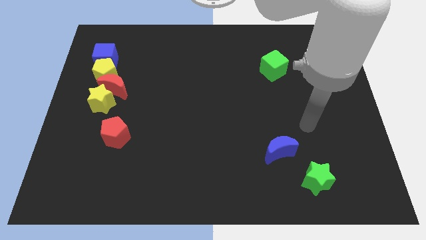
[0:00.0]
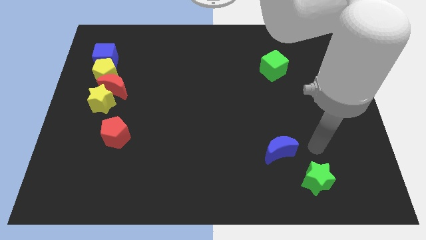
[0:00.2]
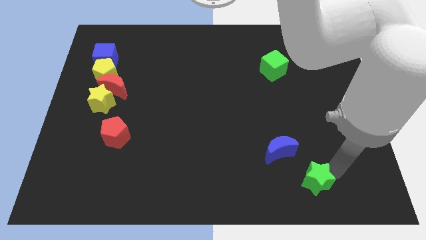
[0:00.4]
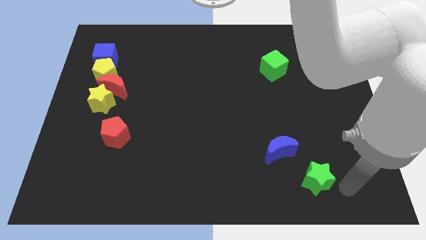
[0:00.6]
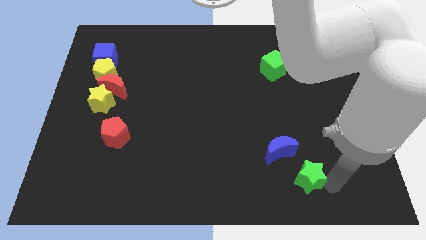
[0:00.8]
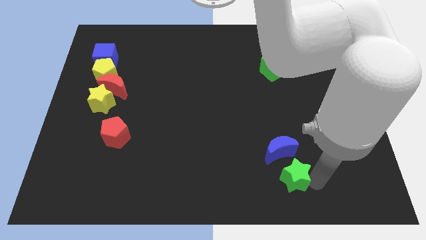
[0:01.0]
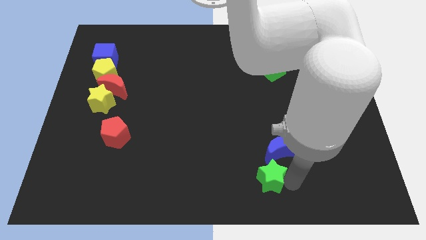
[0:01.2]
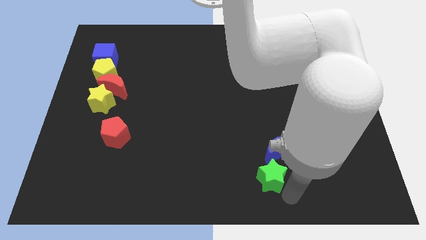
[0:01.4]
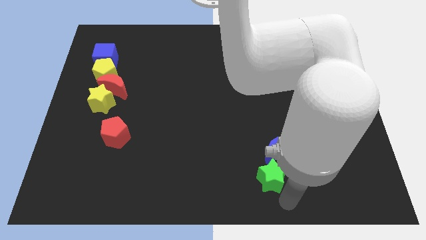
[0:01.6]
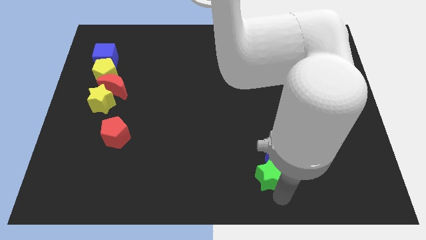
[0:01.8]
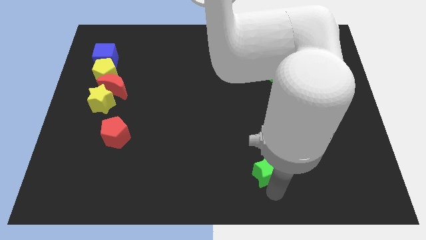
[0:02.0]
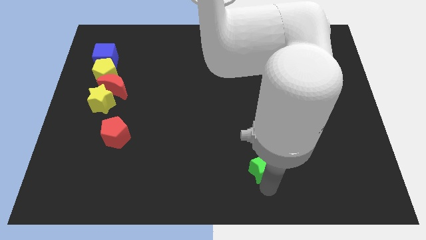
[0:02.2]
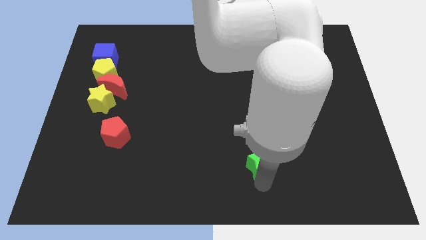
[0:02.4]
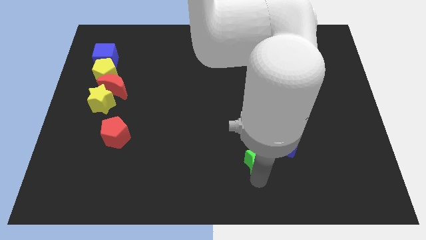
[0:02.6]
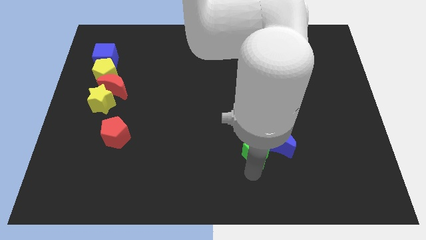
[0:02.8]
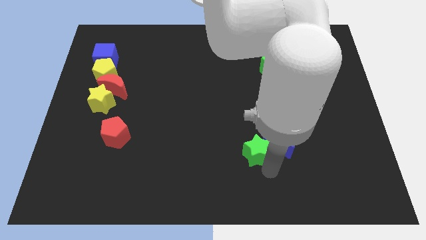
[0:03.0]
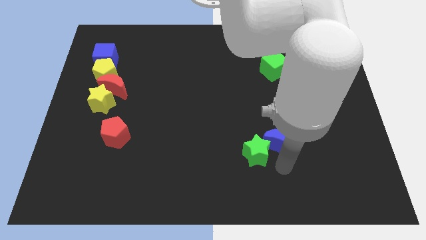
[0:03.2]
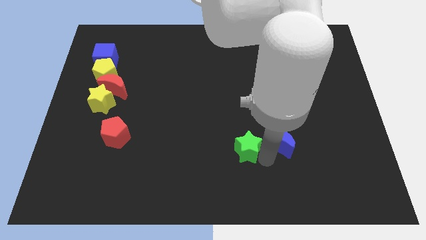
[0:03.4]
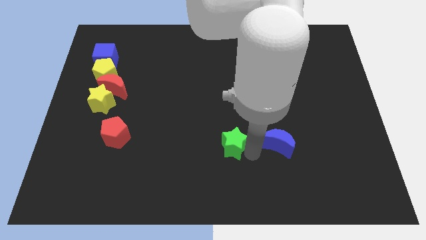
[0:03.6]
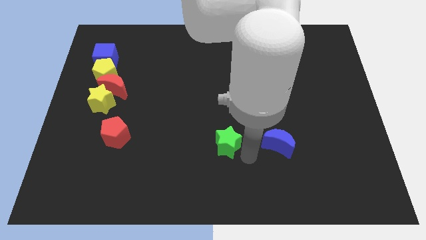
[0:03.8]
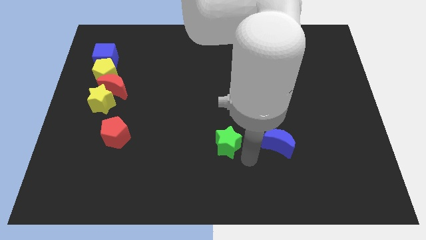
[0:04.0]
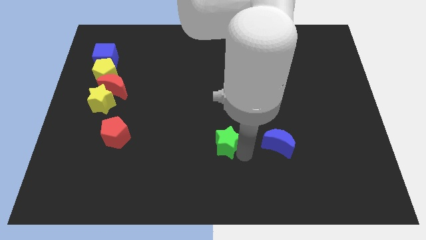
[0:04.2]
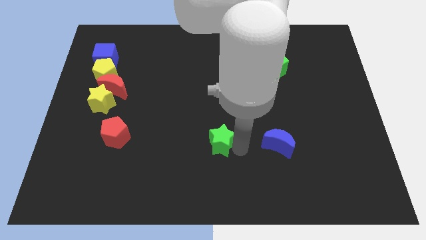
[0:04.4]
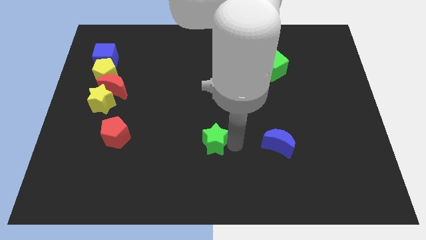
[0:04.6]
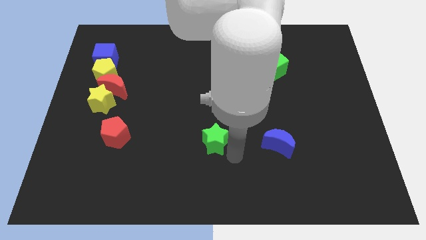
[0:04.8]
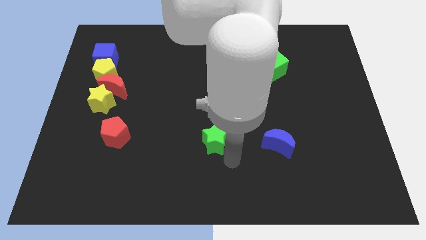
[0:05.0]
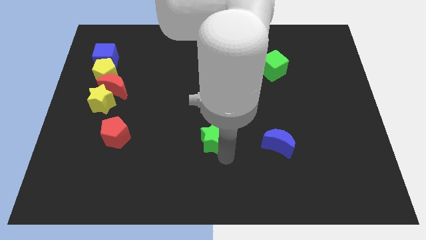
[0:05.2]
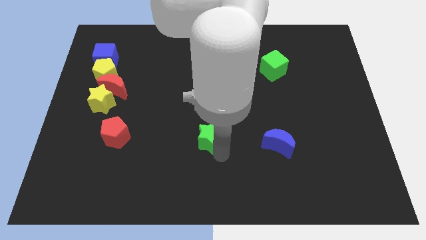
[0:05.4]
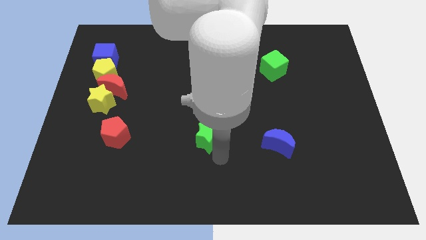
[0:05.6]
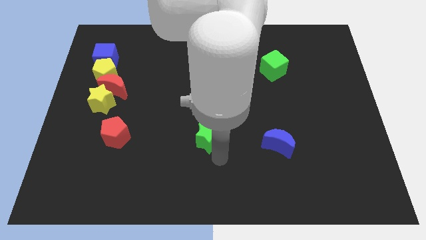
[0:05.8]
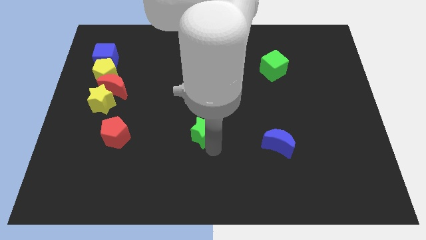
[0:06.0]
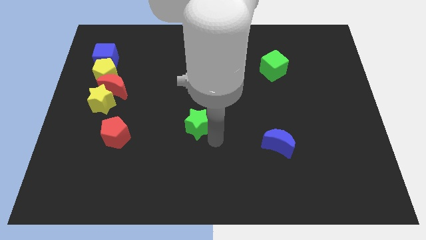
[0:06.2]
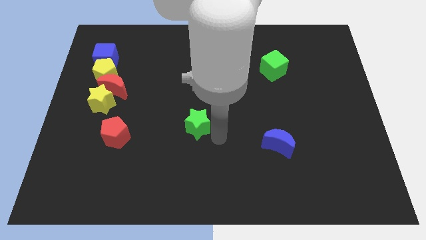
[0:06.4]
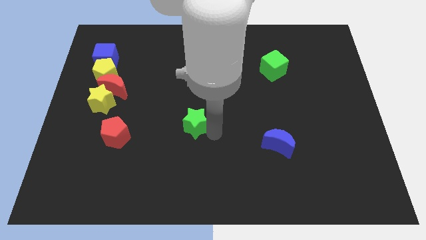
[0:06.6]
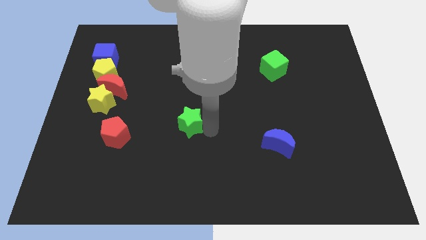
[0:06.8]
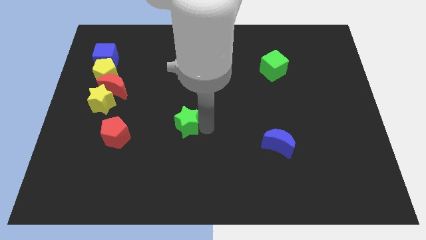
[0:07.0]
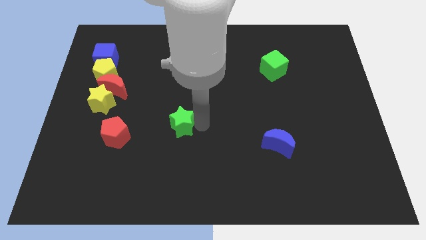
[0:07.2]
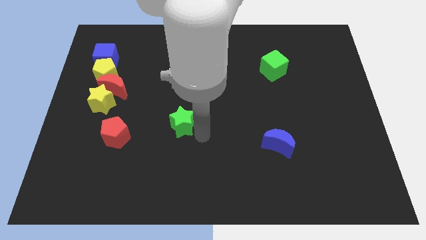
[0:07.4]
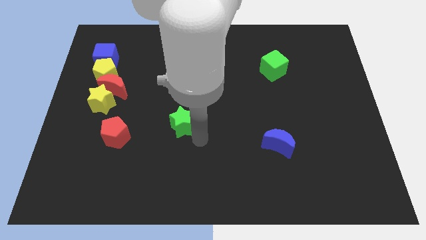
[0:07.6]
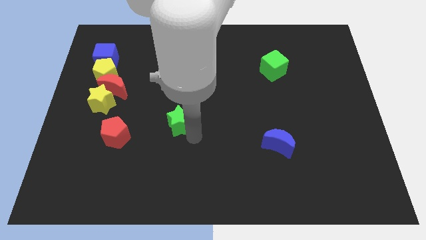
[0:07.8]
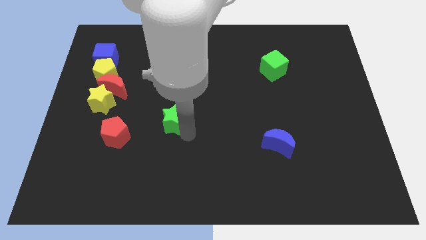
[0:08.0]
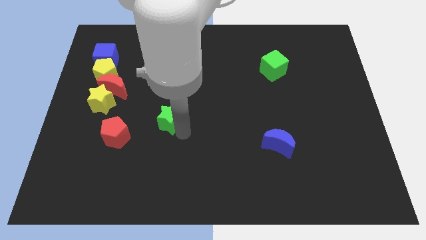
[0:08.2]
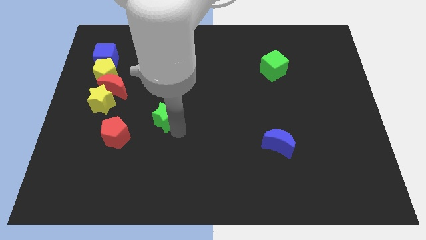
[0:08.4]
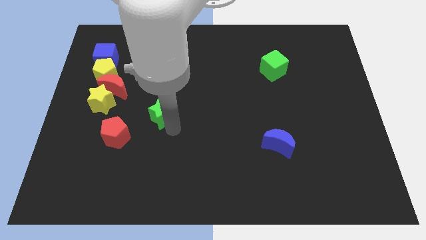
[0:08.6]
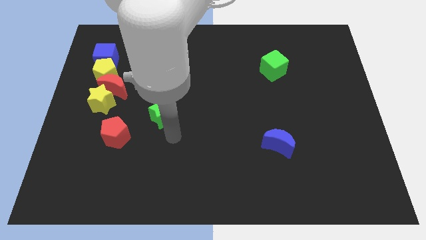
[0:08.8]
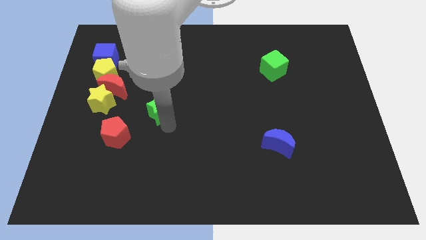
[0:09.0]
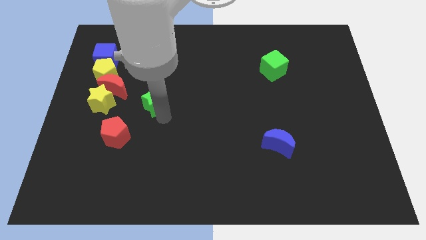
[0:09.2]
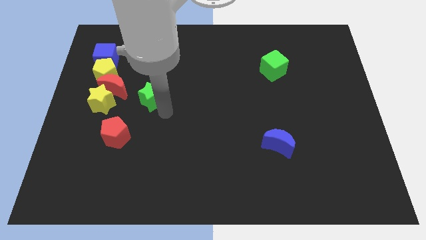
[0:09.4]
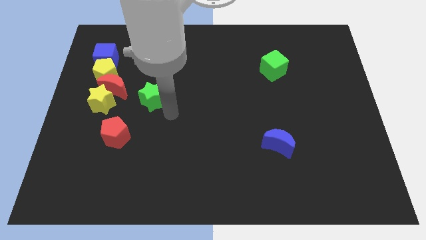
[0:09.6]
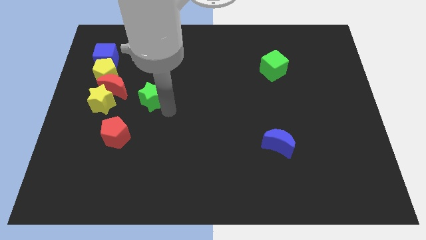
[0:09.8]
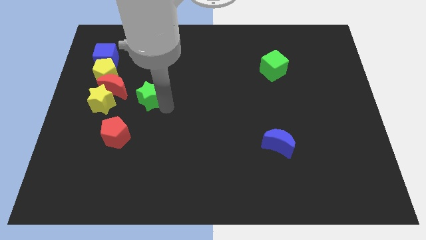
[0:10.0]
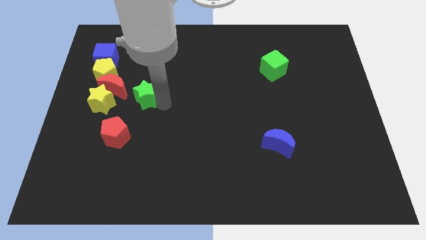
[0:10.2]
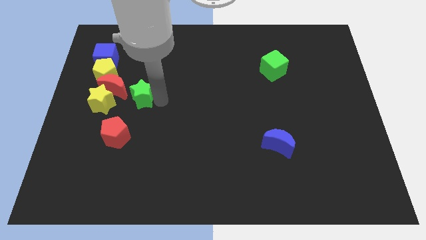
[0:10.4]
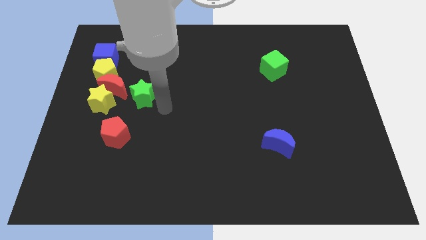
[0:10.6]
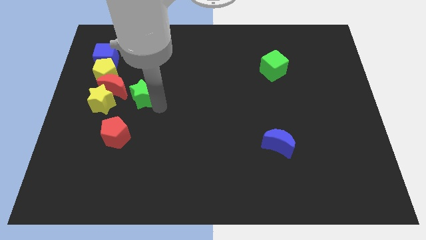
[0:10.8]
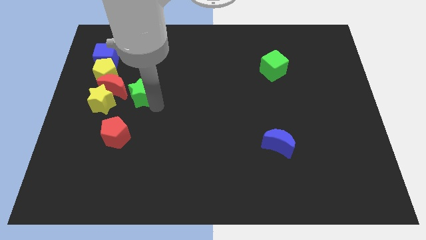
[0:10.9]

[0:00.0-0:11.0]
move the green star to the top right side of the yellow star

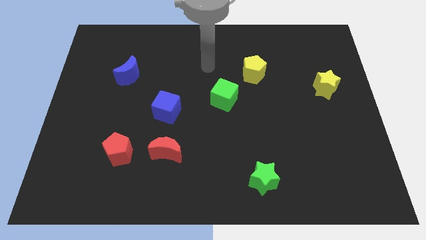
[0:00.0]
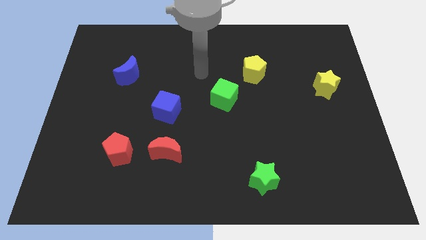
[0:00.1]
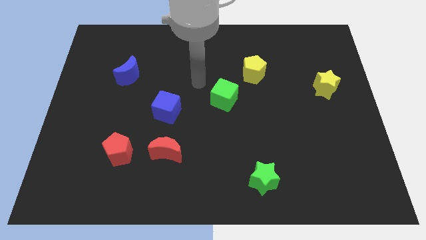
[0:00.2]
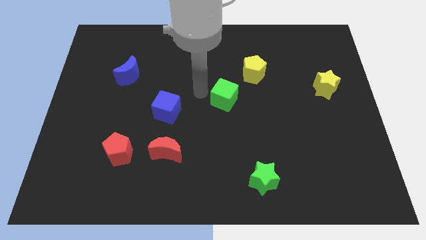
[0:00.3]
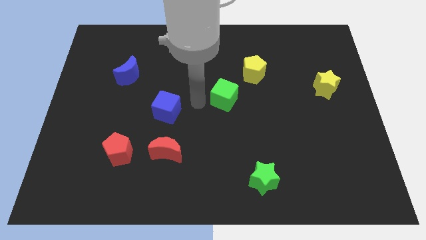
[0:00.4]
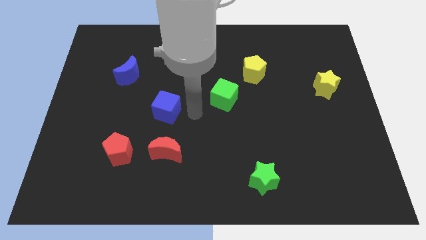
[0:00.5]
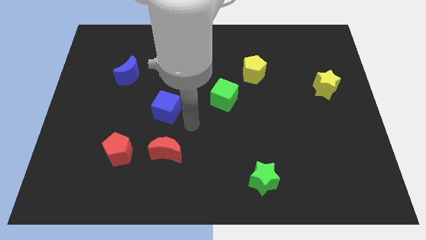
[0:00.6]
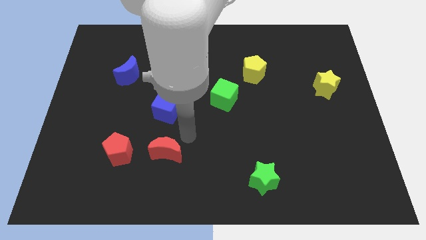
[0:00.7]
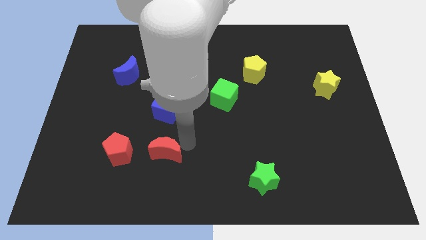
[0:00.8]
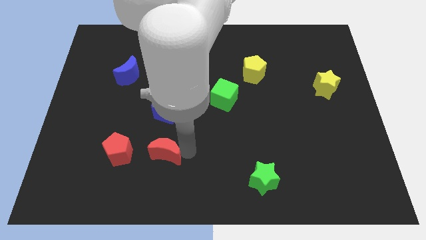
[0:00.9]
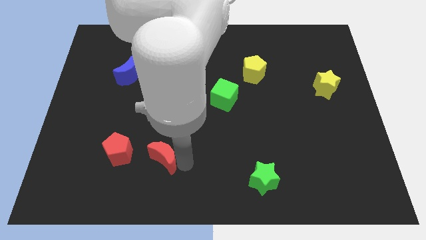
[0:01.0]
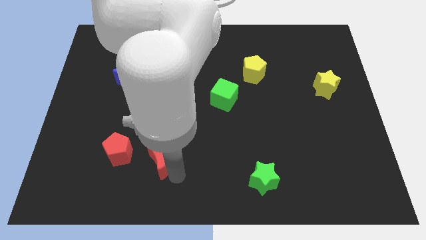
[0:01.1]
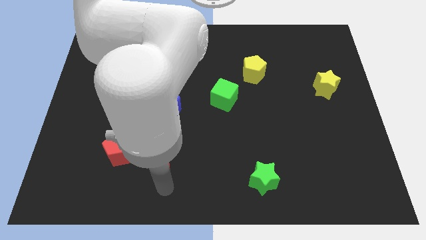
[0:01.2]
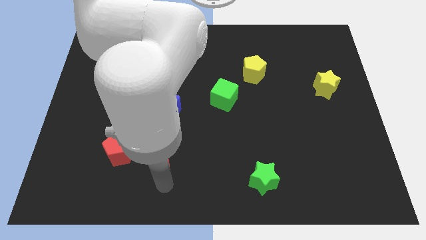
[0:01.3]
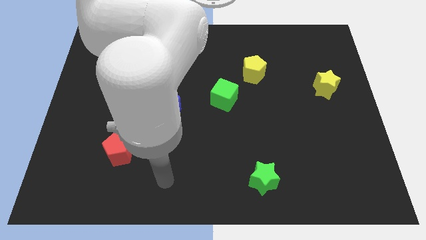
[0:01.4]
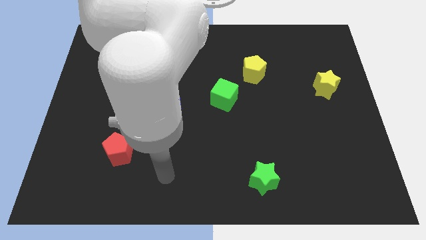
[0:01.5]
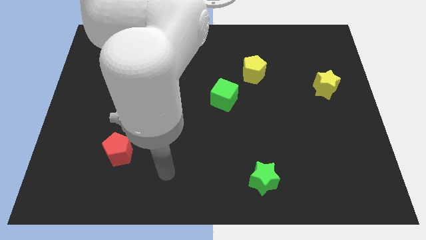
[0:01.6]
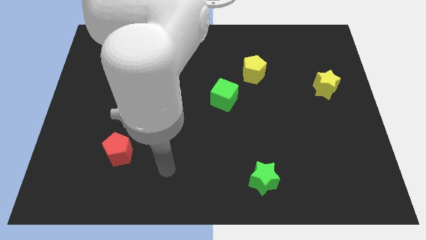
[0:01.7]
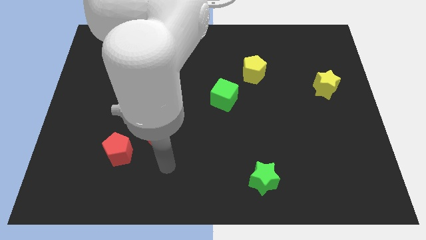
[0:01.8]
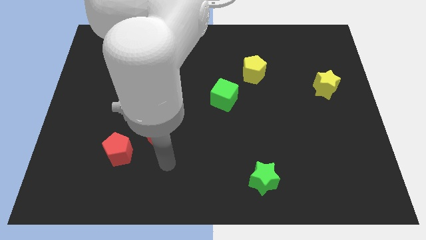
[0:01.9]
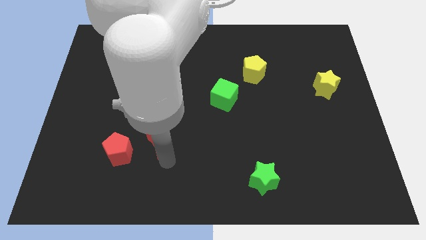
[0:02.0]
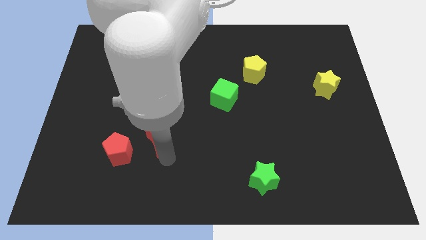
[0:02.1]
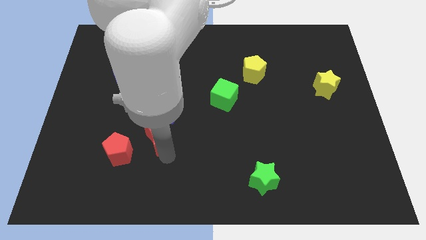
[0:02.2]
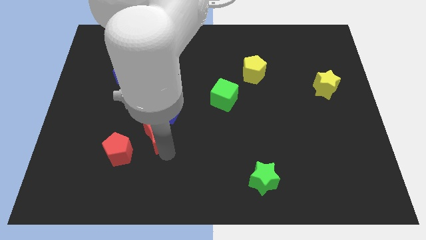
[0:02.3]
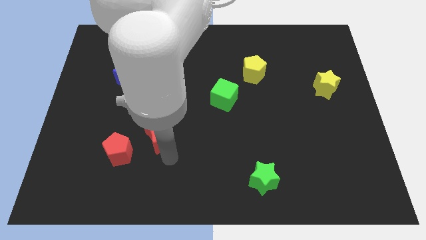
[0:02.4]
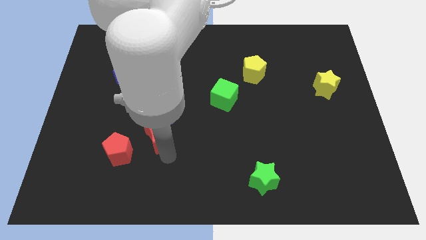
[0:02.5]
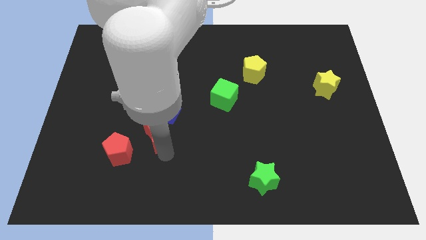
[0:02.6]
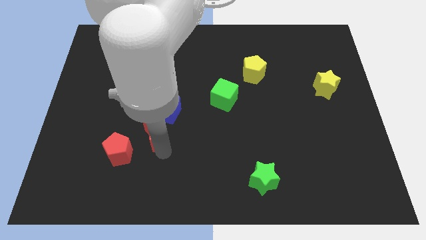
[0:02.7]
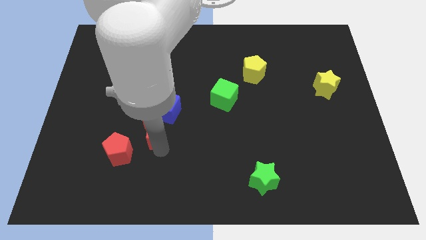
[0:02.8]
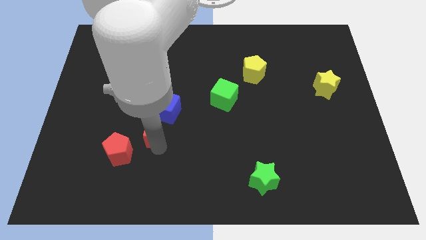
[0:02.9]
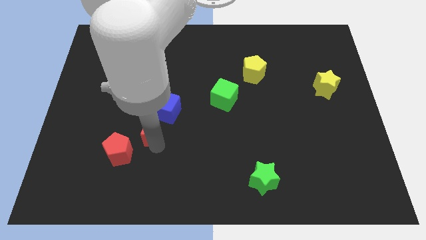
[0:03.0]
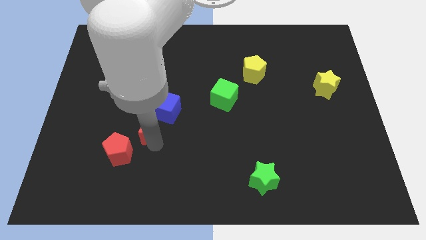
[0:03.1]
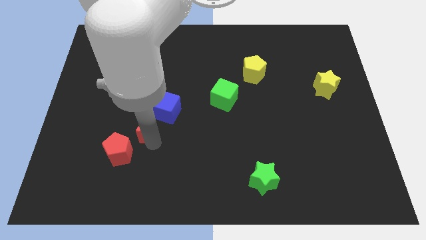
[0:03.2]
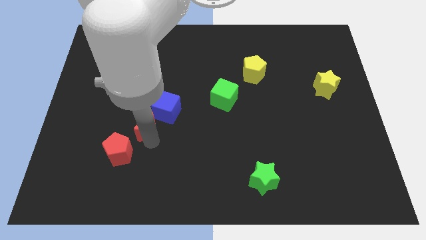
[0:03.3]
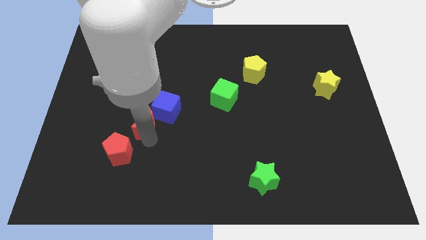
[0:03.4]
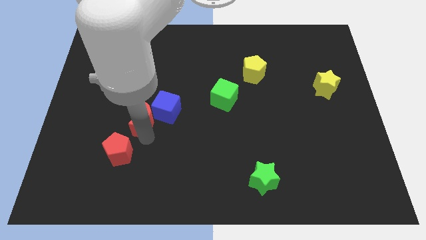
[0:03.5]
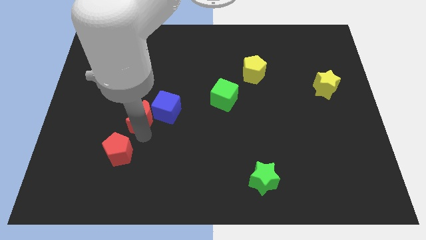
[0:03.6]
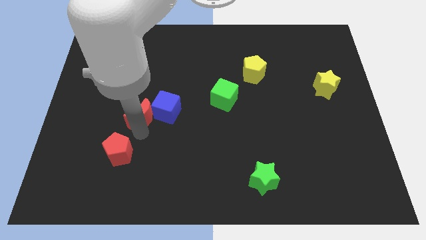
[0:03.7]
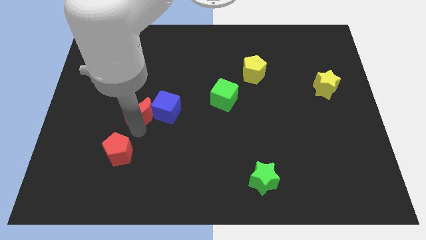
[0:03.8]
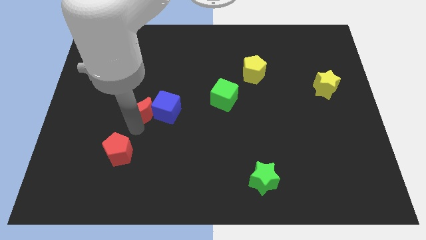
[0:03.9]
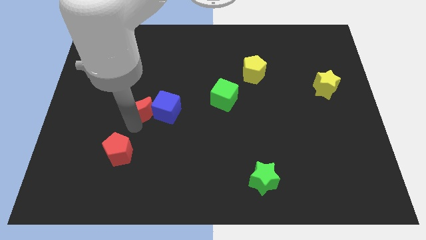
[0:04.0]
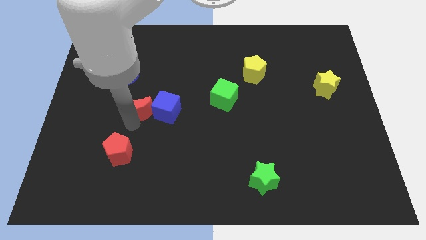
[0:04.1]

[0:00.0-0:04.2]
put the red moon diagonally up and to the left of the blue cube
